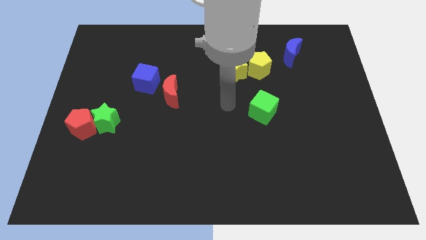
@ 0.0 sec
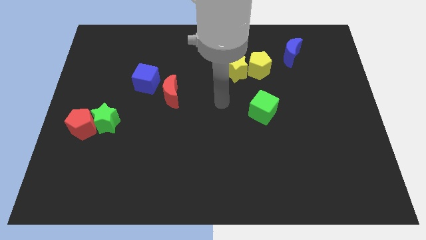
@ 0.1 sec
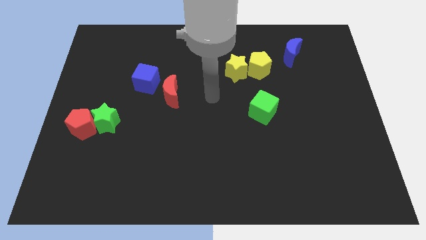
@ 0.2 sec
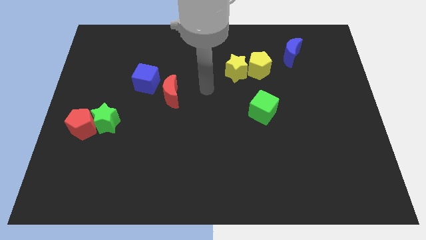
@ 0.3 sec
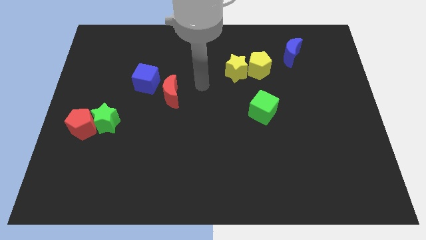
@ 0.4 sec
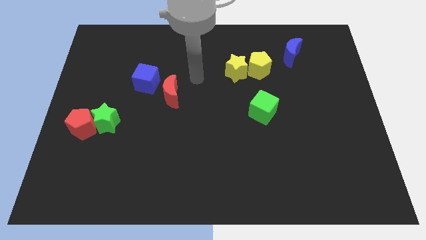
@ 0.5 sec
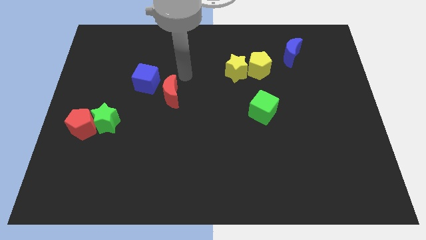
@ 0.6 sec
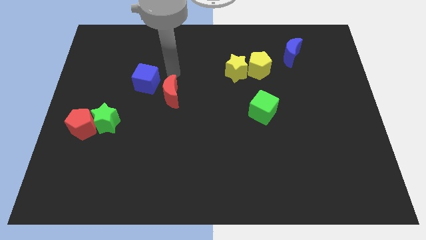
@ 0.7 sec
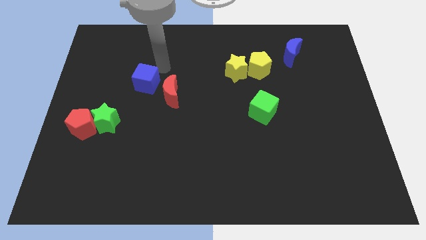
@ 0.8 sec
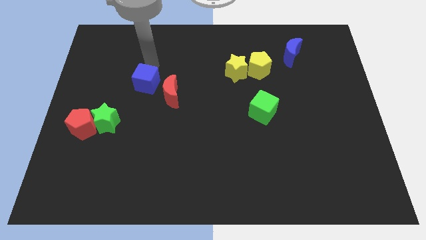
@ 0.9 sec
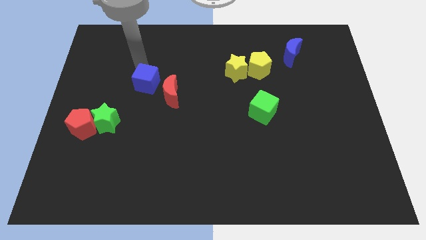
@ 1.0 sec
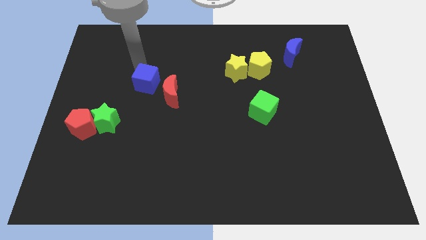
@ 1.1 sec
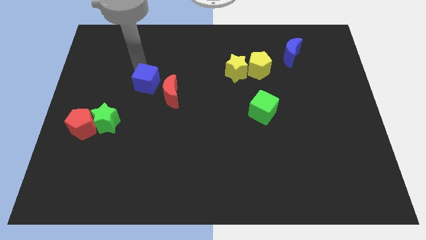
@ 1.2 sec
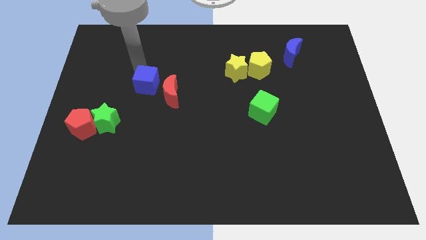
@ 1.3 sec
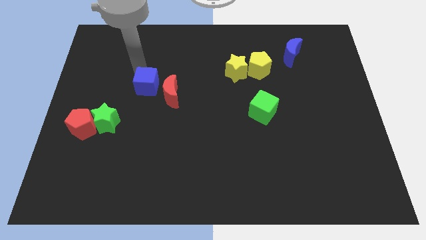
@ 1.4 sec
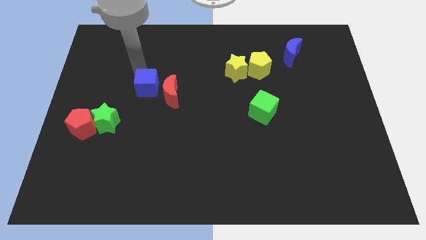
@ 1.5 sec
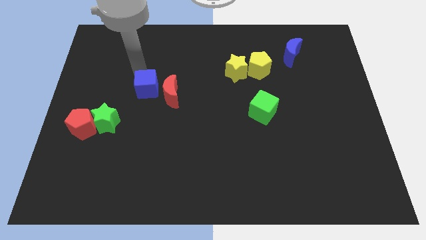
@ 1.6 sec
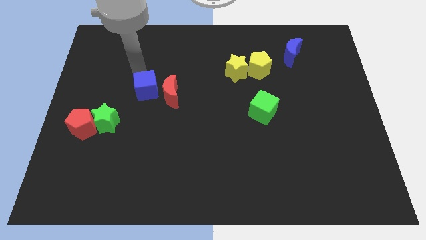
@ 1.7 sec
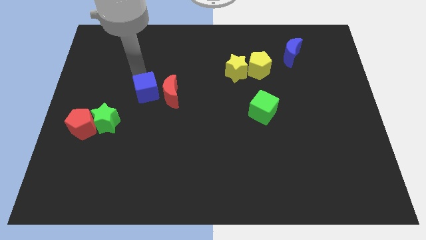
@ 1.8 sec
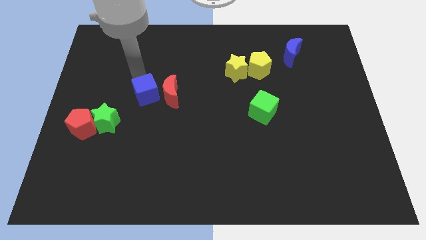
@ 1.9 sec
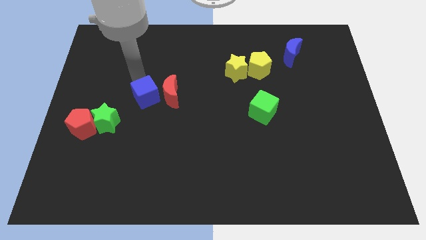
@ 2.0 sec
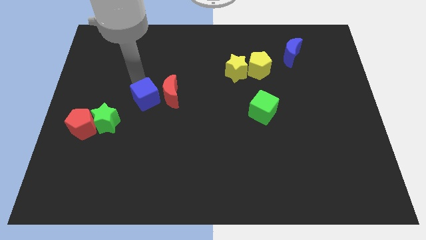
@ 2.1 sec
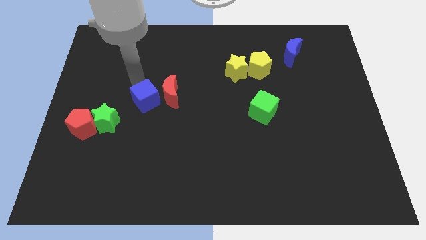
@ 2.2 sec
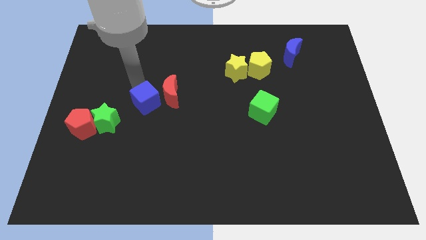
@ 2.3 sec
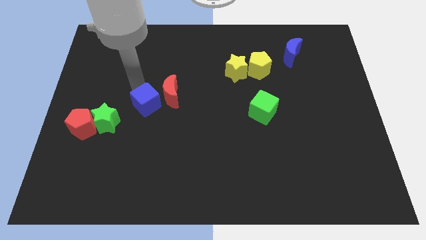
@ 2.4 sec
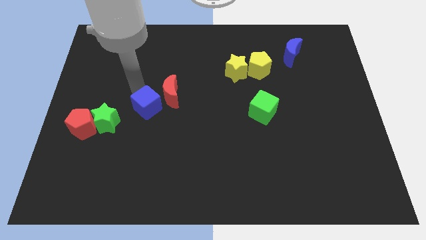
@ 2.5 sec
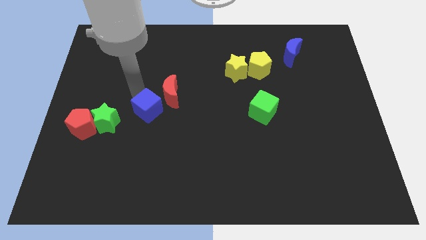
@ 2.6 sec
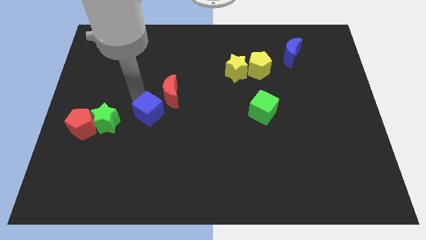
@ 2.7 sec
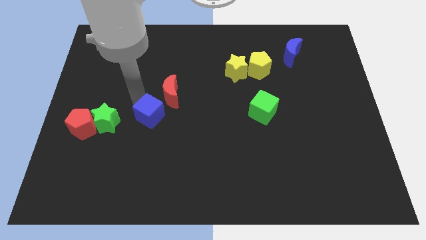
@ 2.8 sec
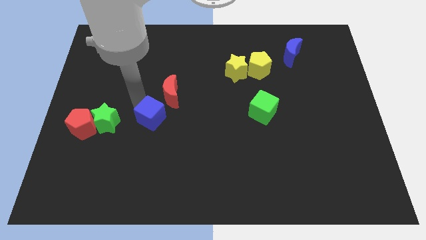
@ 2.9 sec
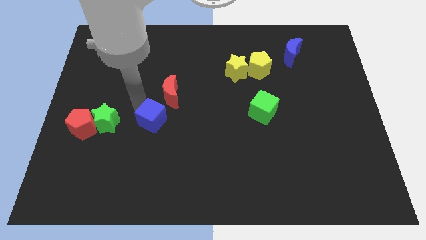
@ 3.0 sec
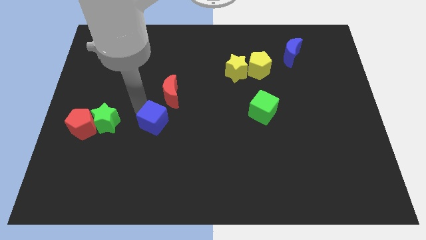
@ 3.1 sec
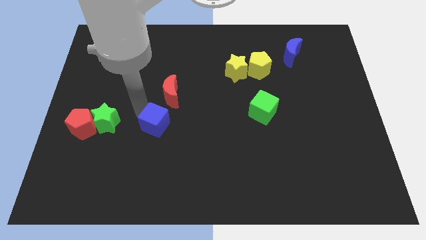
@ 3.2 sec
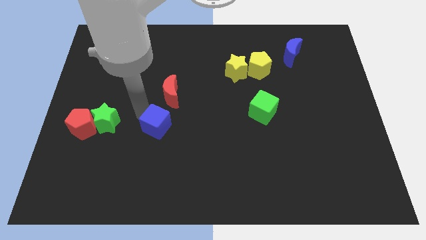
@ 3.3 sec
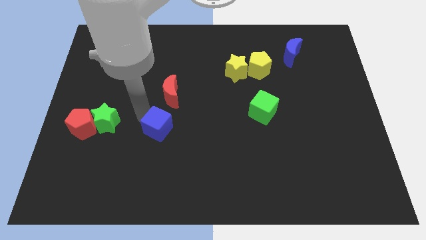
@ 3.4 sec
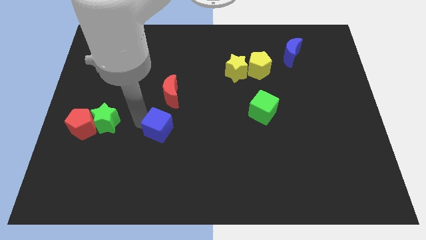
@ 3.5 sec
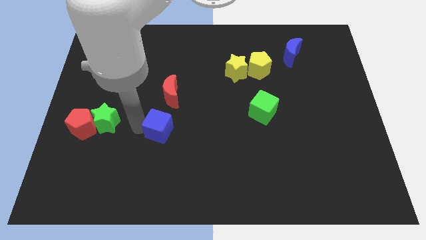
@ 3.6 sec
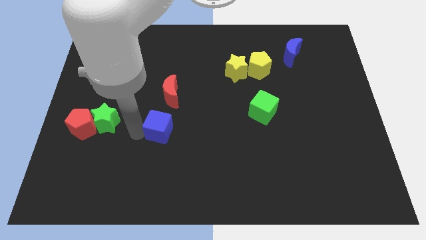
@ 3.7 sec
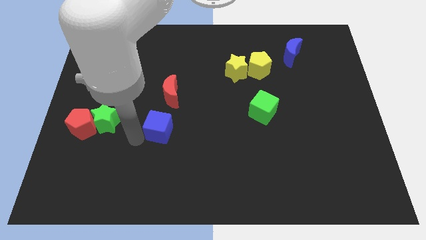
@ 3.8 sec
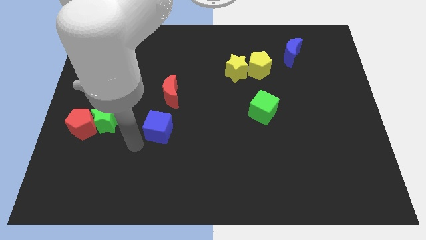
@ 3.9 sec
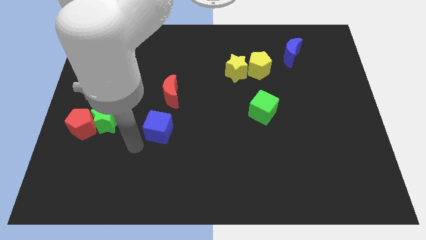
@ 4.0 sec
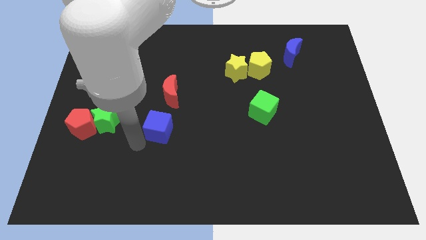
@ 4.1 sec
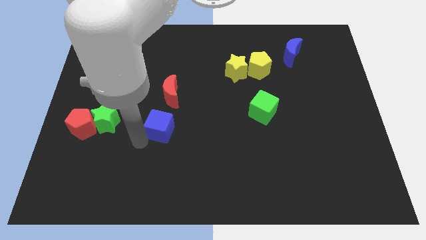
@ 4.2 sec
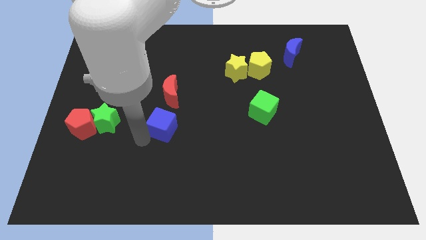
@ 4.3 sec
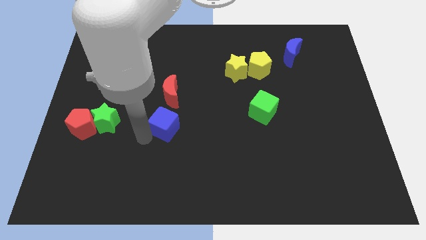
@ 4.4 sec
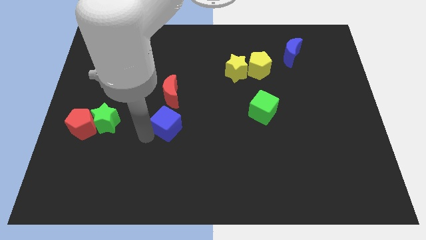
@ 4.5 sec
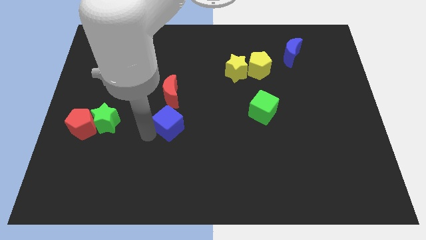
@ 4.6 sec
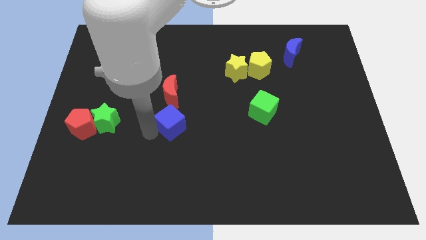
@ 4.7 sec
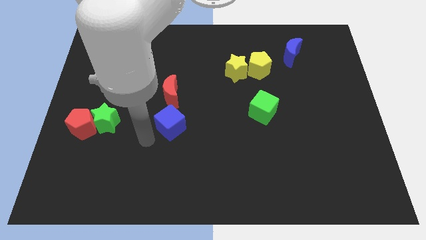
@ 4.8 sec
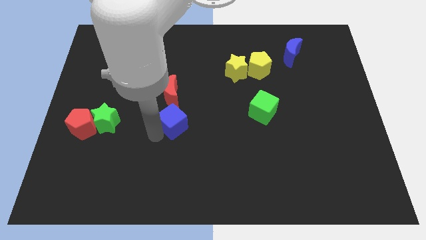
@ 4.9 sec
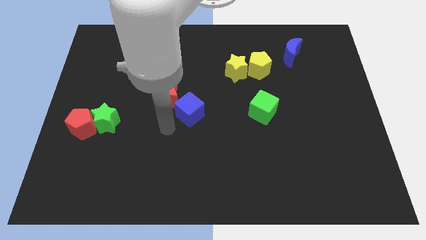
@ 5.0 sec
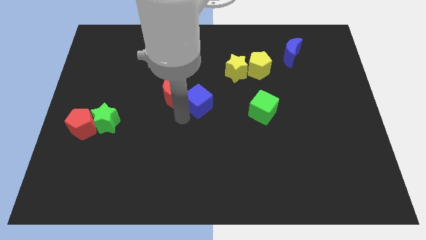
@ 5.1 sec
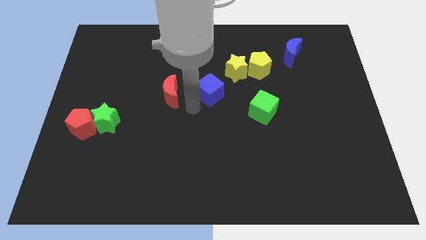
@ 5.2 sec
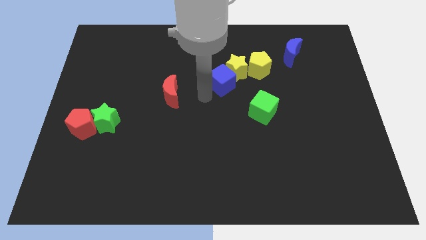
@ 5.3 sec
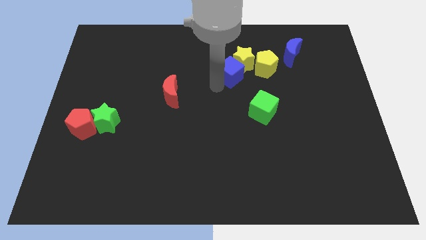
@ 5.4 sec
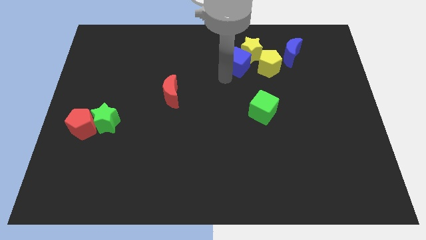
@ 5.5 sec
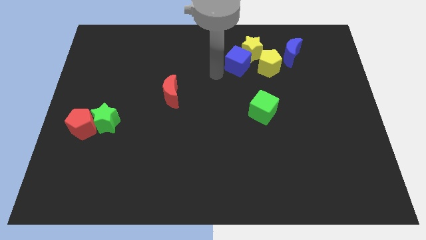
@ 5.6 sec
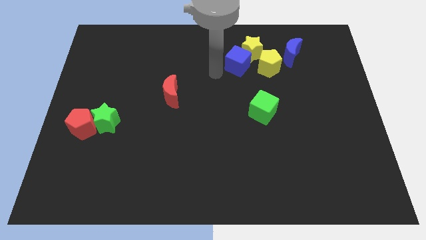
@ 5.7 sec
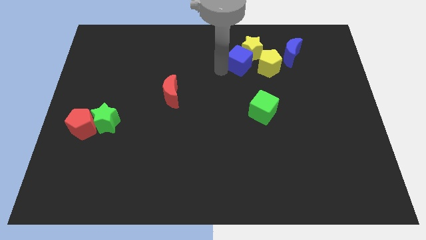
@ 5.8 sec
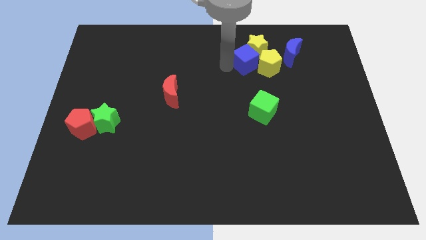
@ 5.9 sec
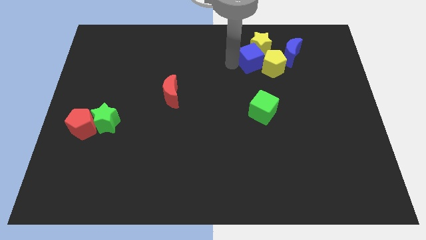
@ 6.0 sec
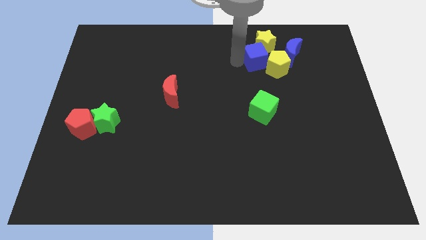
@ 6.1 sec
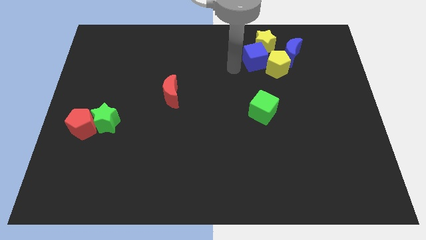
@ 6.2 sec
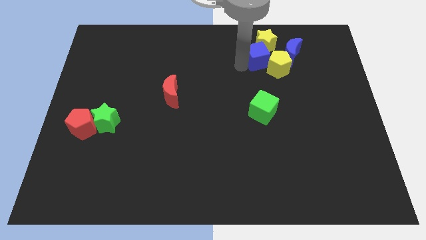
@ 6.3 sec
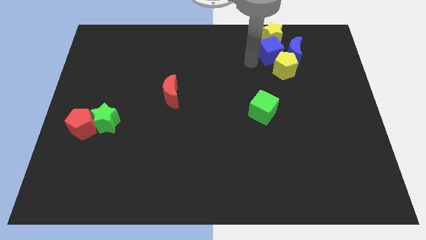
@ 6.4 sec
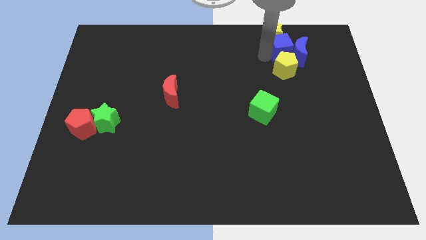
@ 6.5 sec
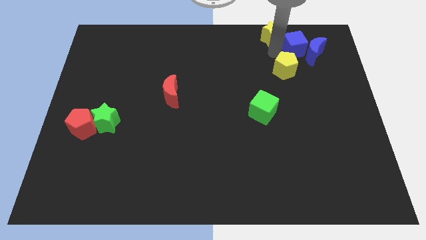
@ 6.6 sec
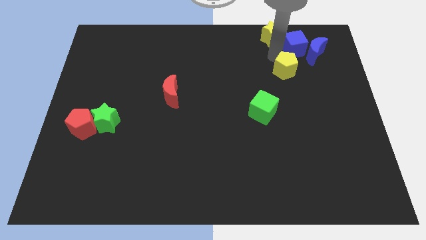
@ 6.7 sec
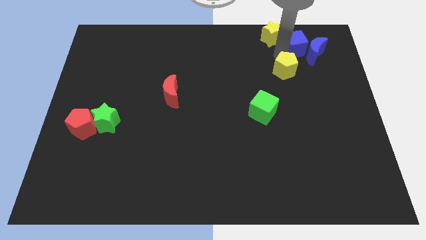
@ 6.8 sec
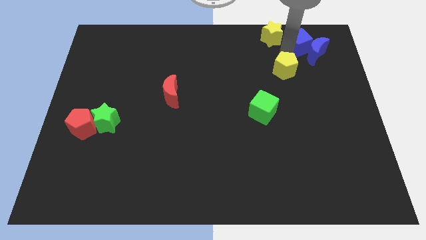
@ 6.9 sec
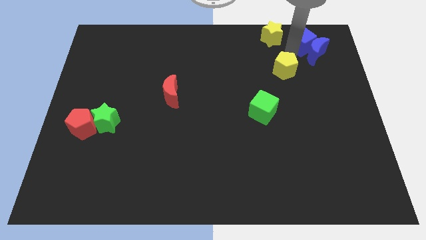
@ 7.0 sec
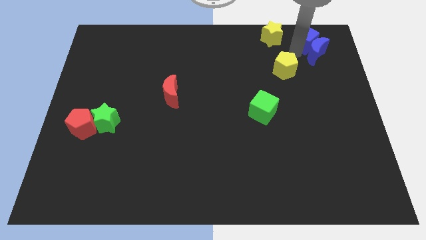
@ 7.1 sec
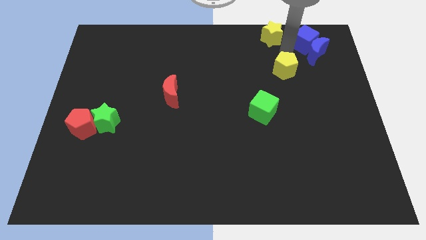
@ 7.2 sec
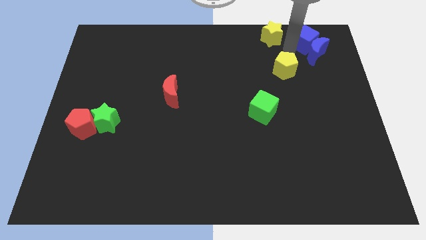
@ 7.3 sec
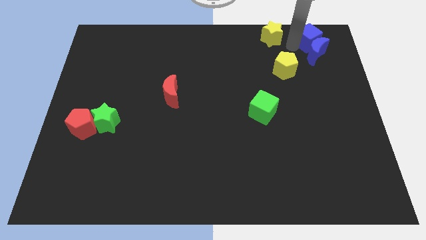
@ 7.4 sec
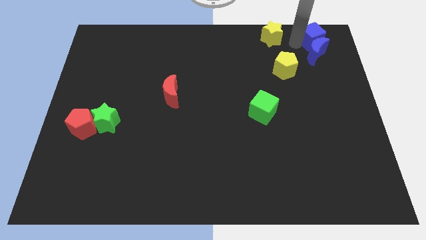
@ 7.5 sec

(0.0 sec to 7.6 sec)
slide the blue cube to the upper right corner
